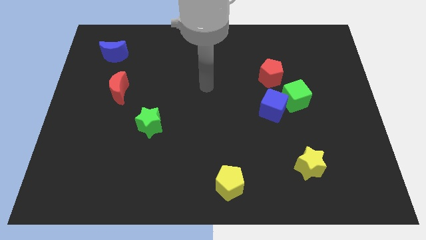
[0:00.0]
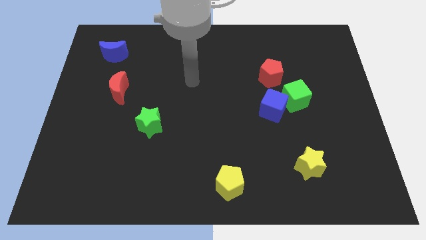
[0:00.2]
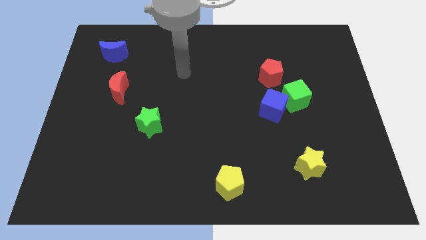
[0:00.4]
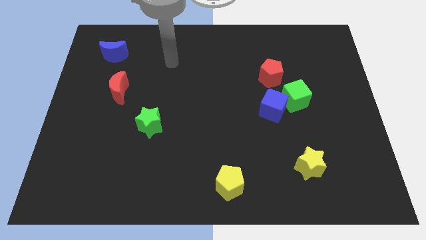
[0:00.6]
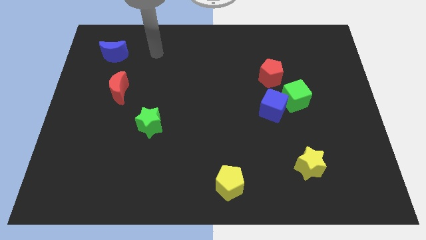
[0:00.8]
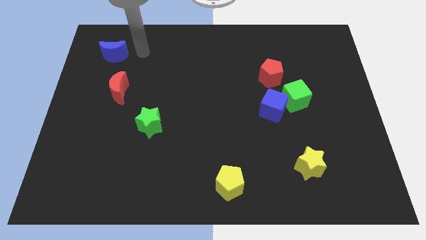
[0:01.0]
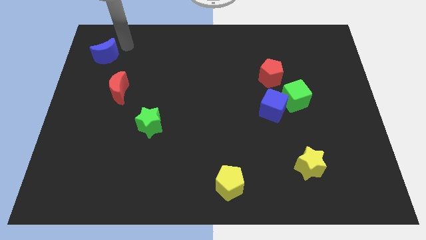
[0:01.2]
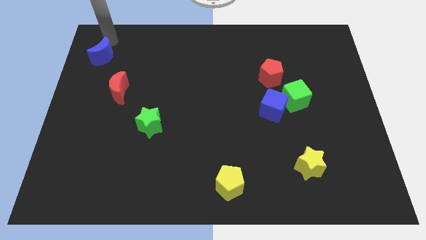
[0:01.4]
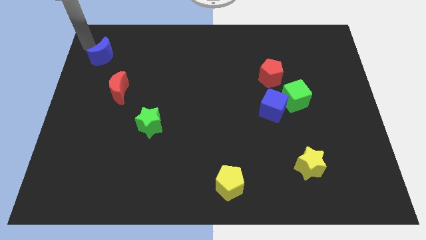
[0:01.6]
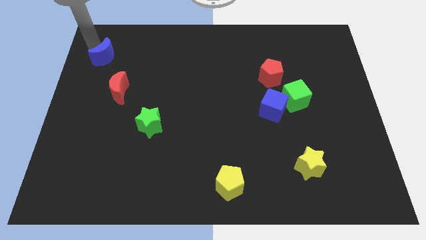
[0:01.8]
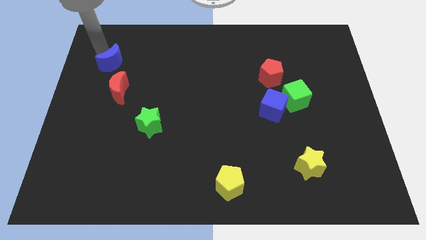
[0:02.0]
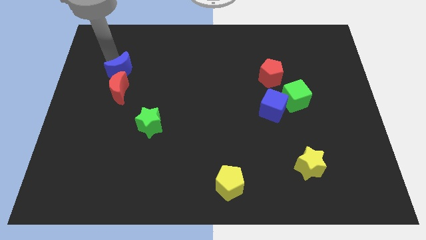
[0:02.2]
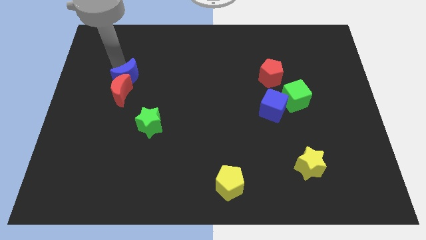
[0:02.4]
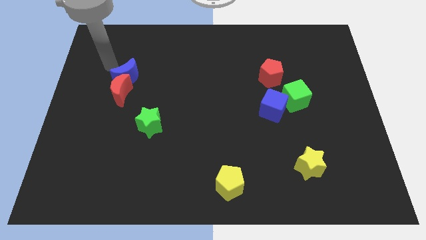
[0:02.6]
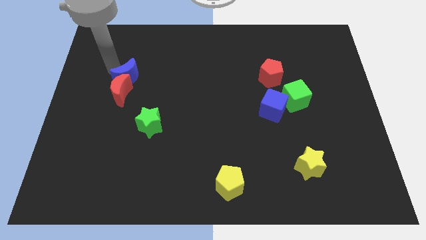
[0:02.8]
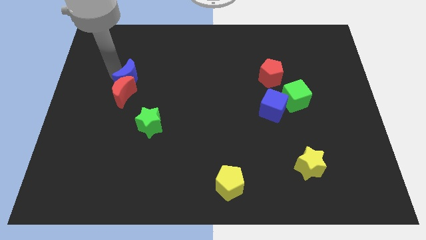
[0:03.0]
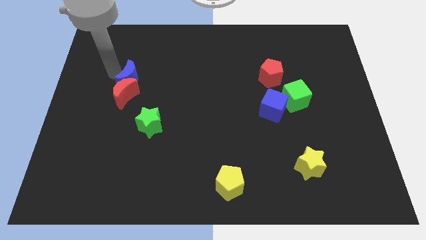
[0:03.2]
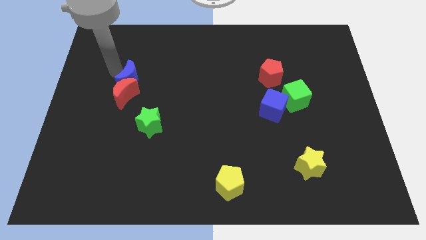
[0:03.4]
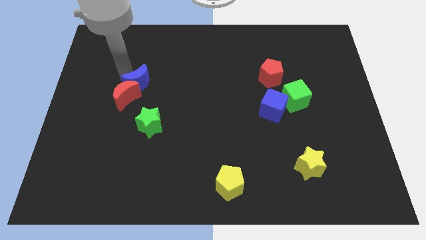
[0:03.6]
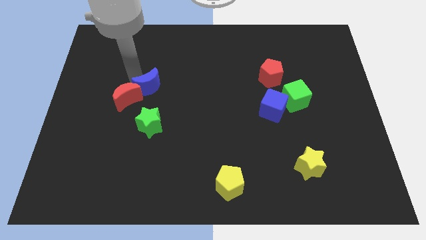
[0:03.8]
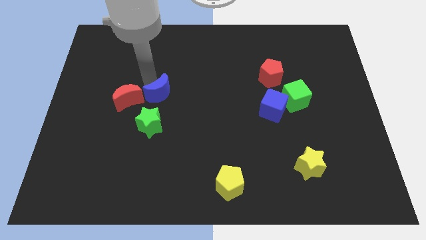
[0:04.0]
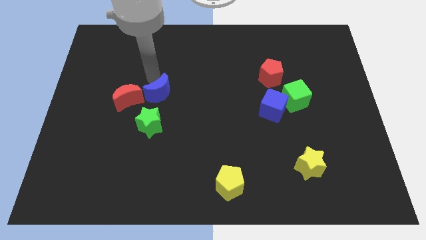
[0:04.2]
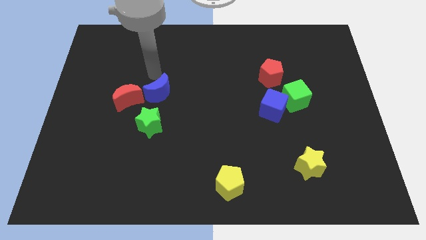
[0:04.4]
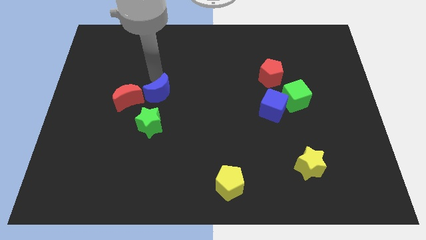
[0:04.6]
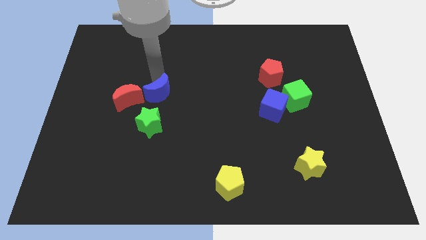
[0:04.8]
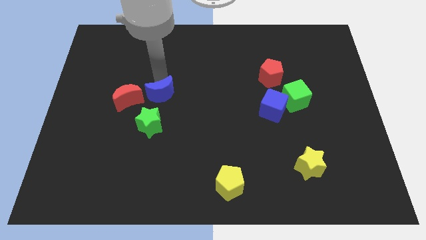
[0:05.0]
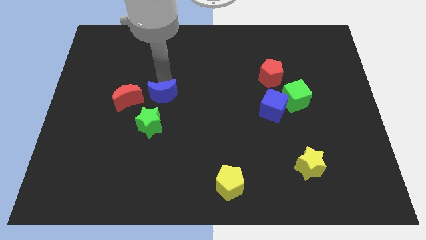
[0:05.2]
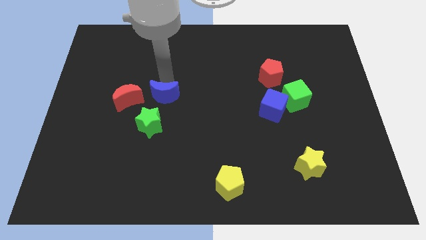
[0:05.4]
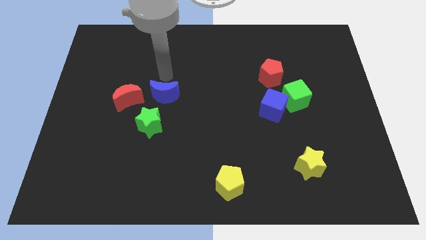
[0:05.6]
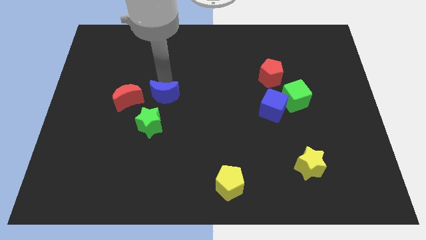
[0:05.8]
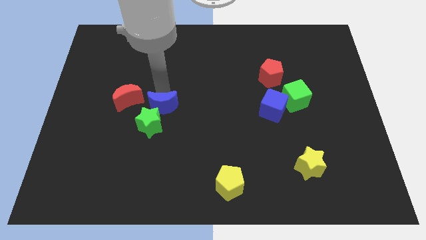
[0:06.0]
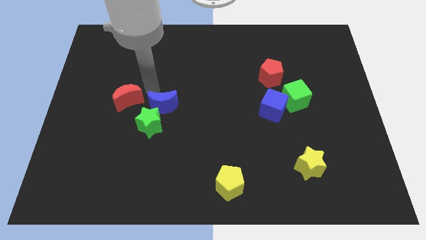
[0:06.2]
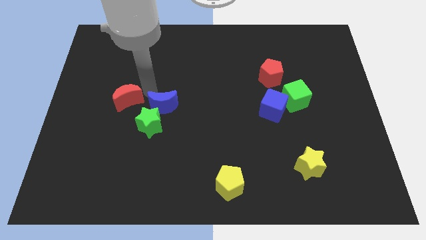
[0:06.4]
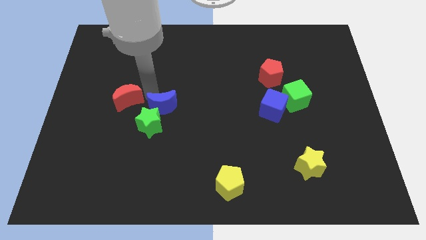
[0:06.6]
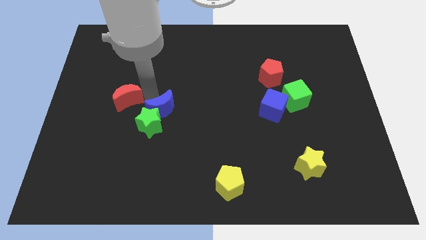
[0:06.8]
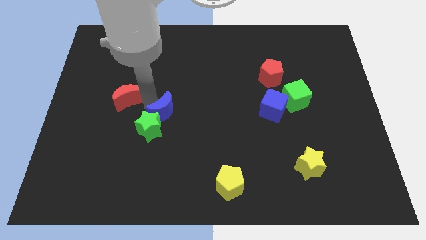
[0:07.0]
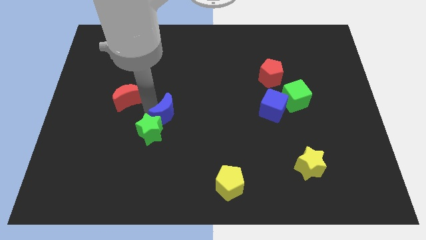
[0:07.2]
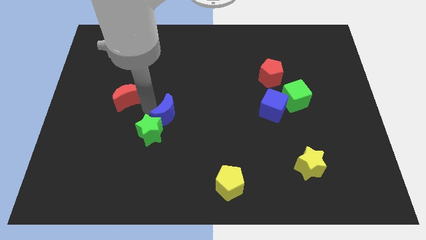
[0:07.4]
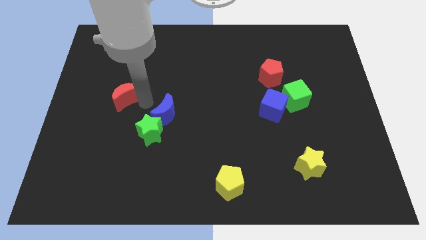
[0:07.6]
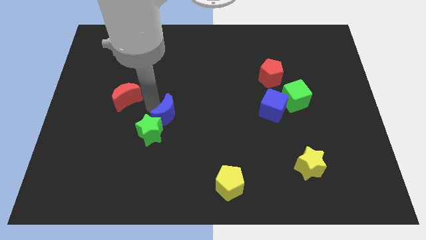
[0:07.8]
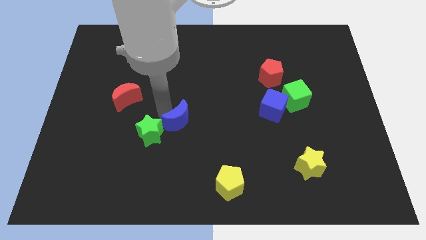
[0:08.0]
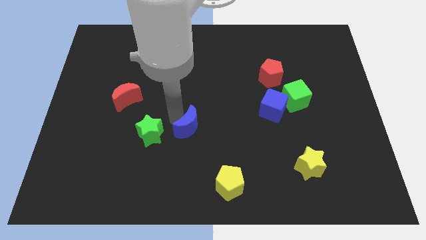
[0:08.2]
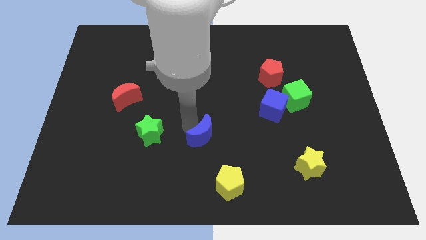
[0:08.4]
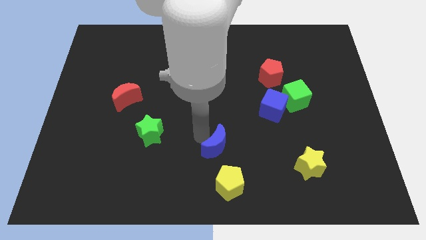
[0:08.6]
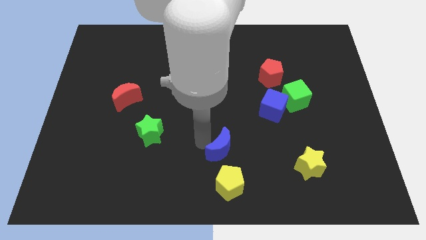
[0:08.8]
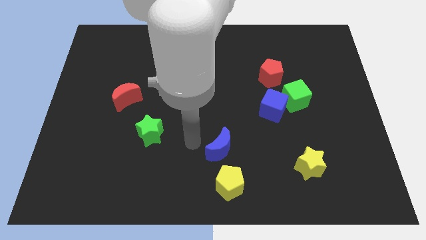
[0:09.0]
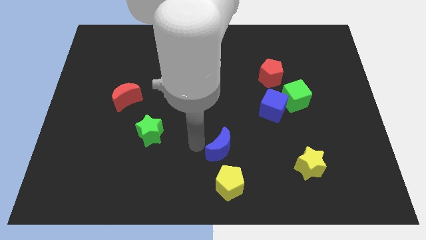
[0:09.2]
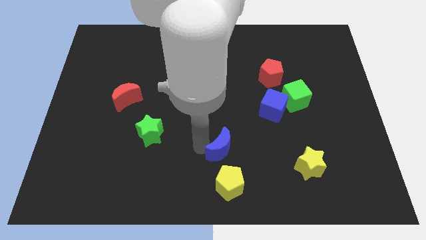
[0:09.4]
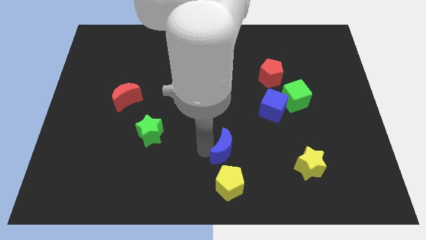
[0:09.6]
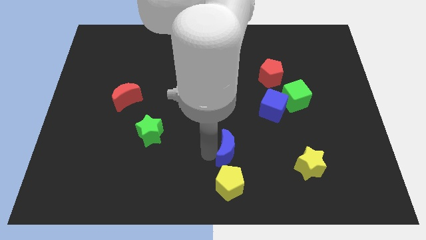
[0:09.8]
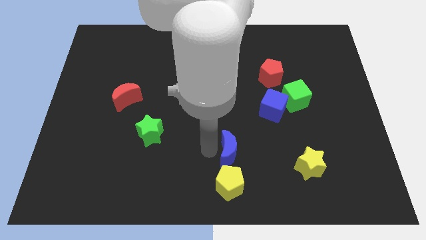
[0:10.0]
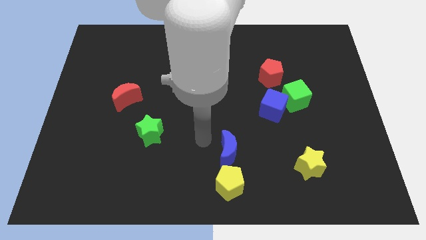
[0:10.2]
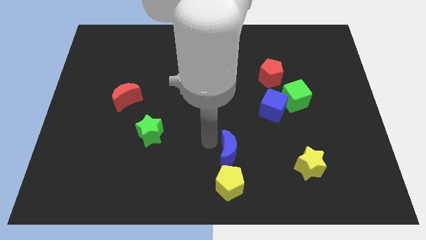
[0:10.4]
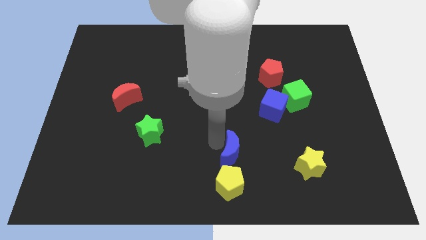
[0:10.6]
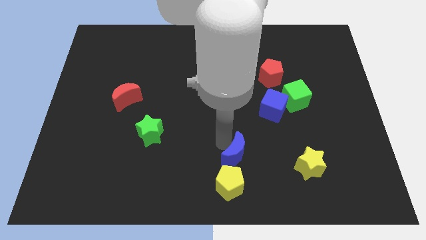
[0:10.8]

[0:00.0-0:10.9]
push the blue moon left of the yellow star

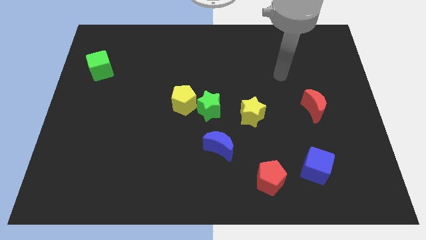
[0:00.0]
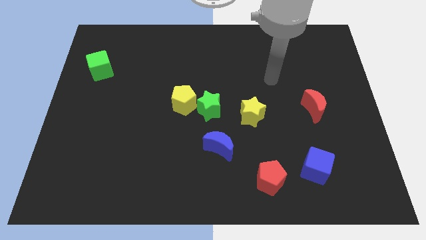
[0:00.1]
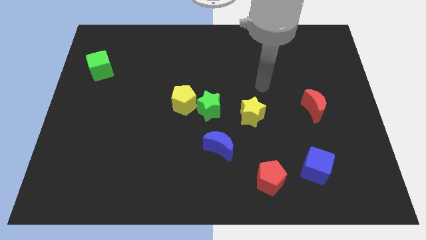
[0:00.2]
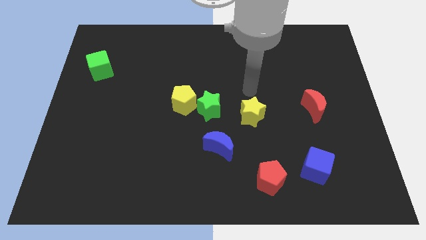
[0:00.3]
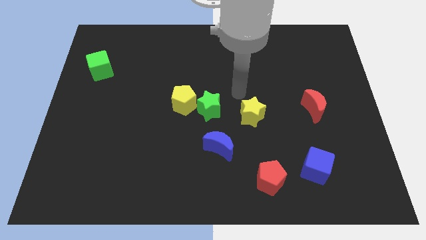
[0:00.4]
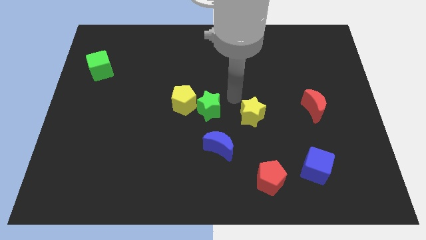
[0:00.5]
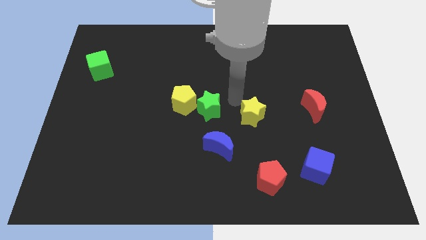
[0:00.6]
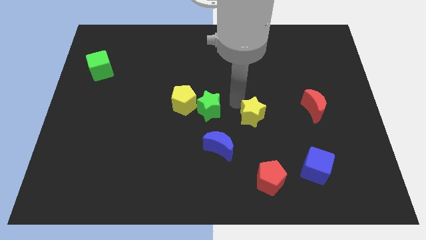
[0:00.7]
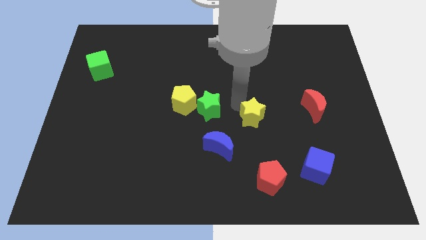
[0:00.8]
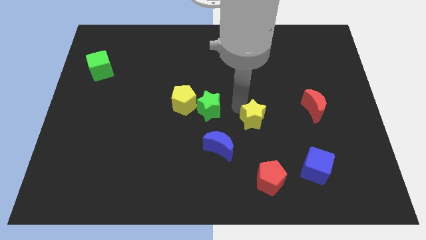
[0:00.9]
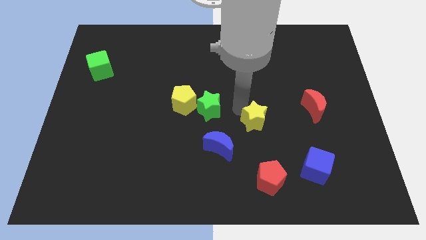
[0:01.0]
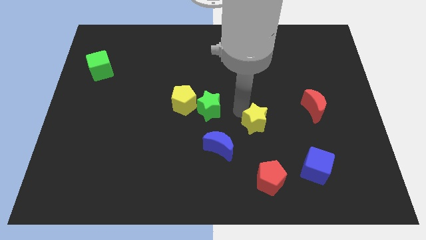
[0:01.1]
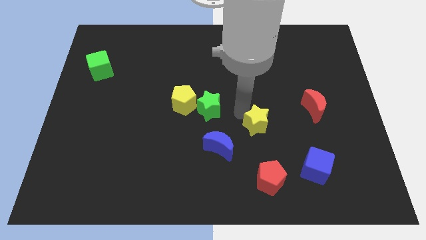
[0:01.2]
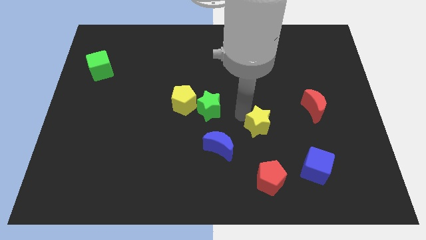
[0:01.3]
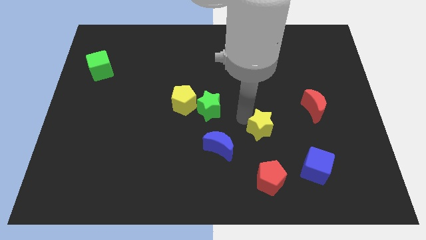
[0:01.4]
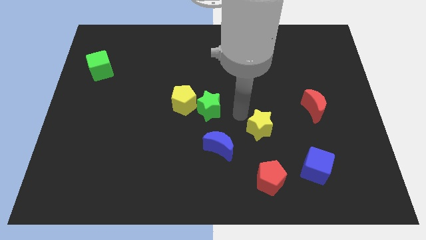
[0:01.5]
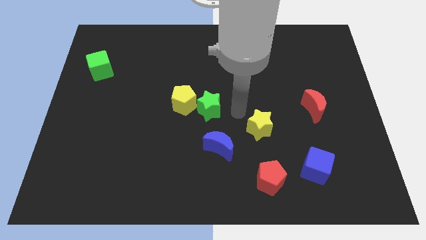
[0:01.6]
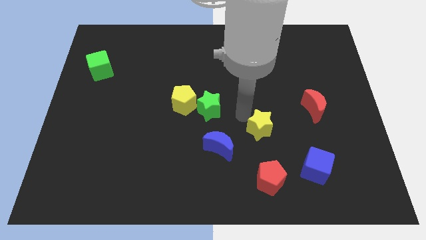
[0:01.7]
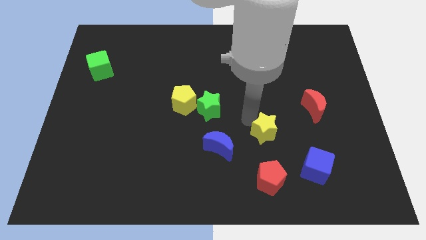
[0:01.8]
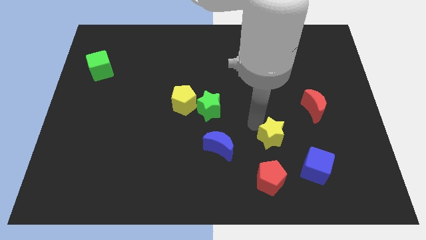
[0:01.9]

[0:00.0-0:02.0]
put the yellow star to the top left side of the blue cube
